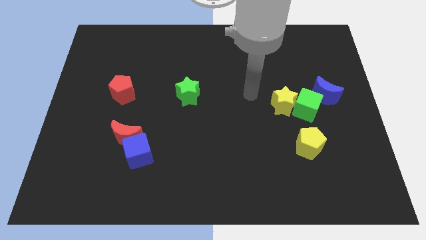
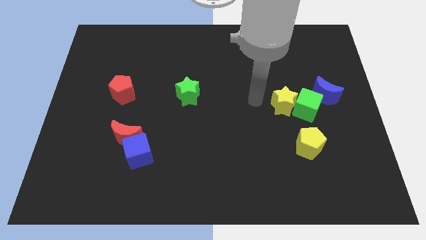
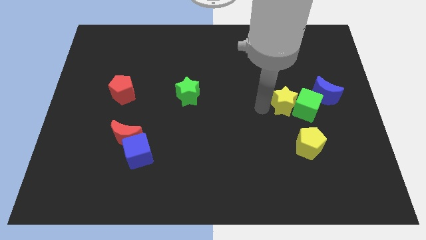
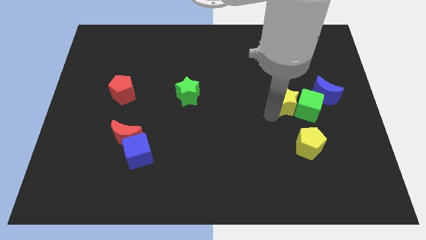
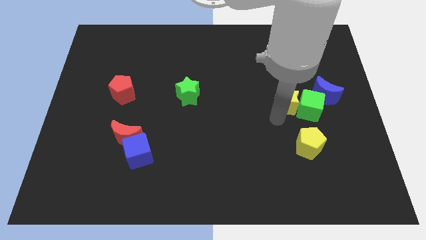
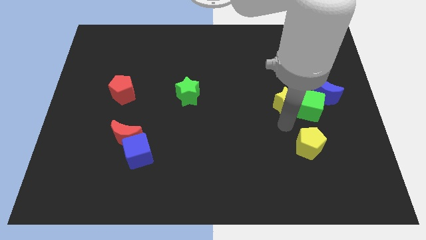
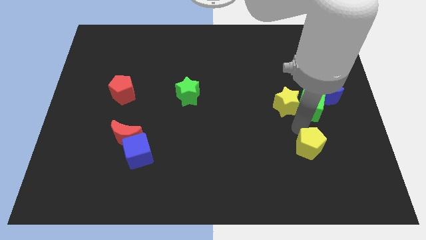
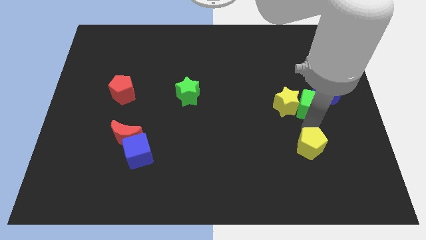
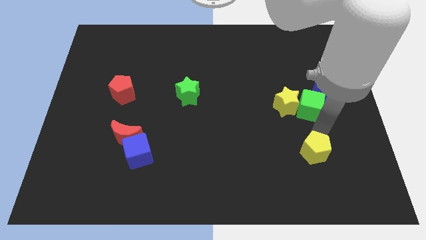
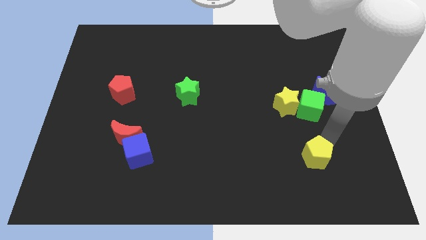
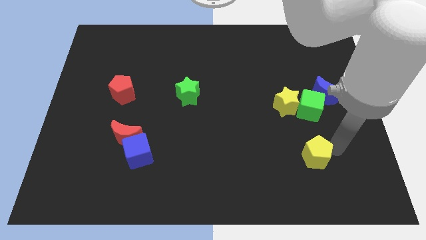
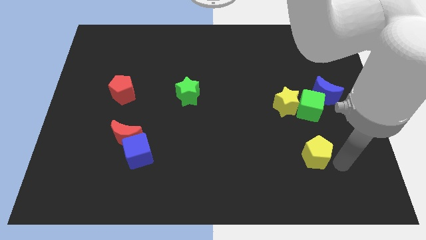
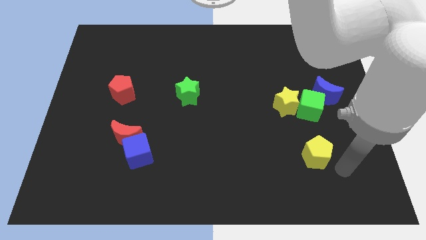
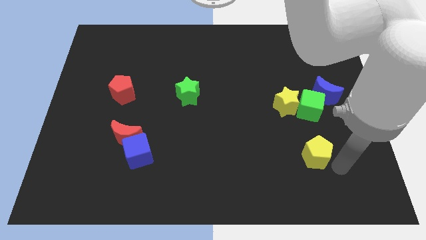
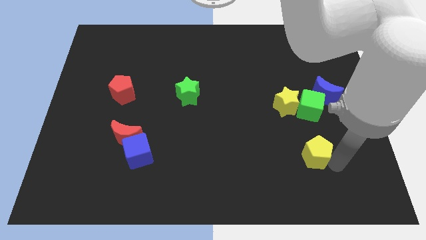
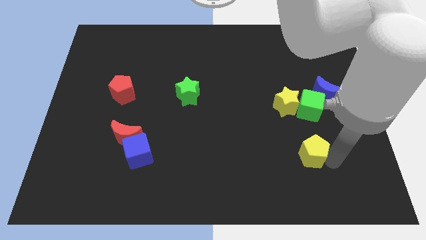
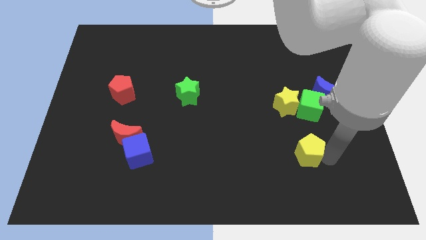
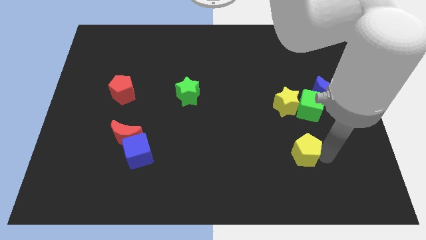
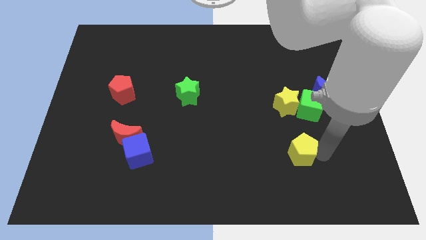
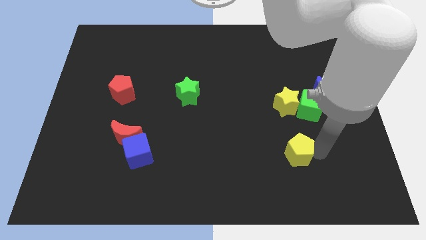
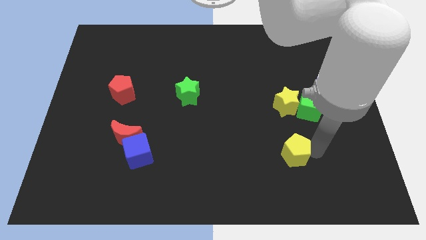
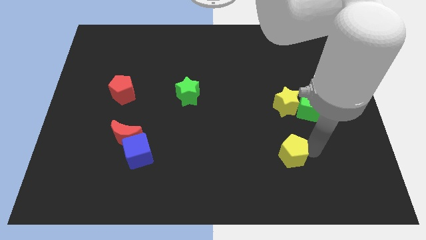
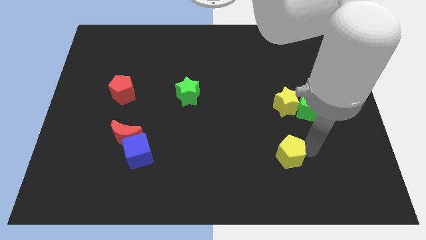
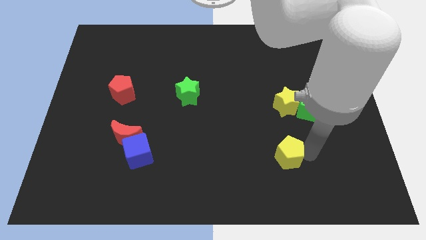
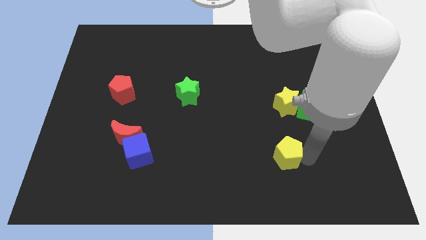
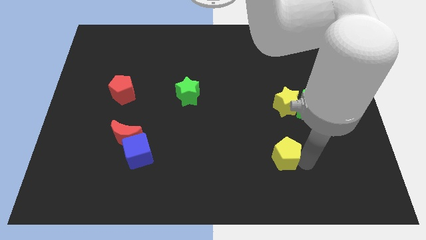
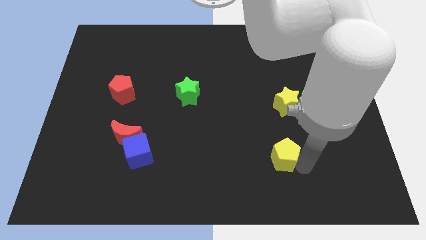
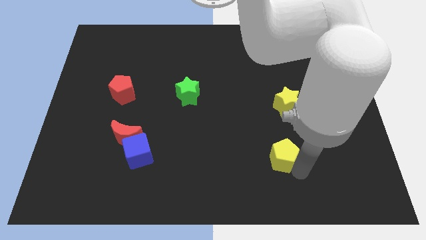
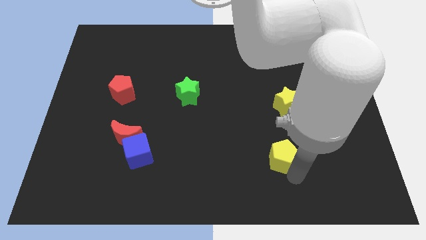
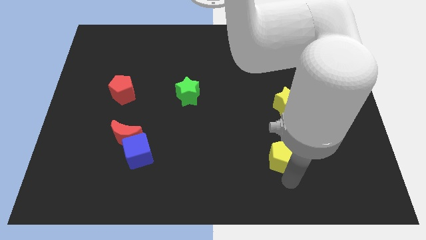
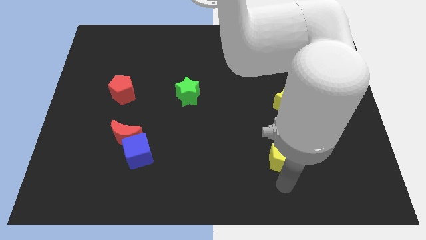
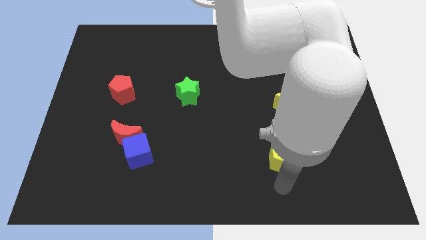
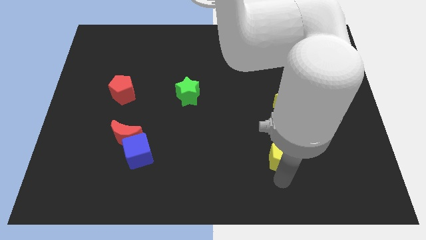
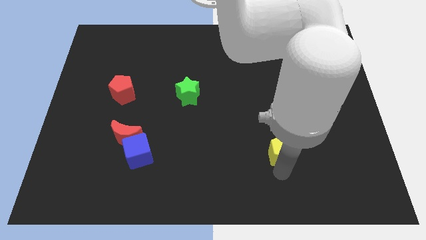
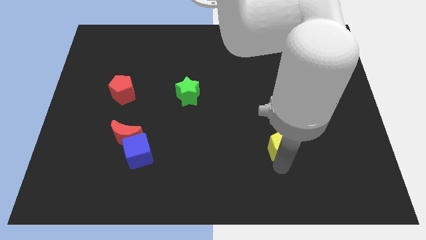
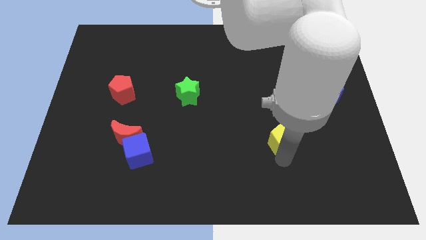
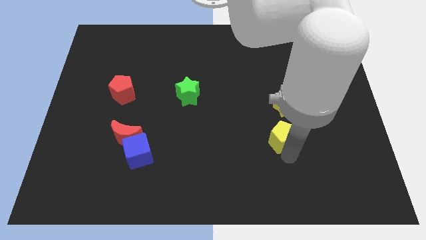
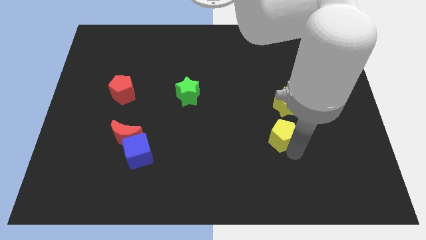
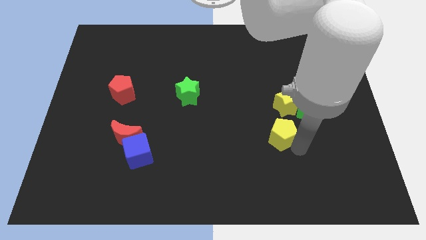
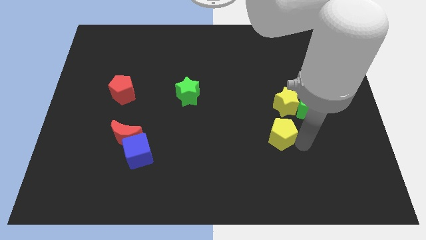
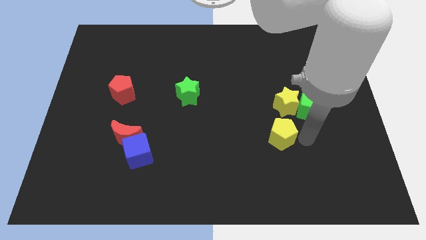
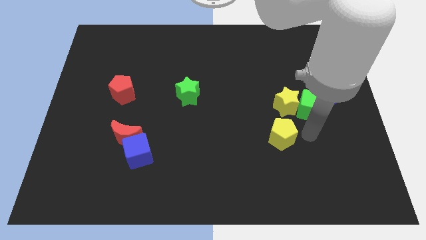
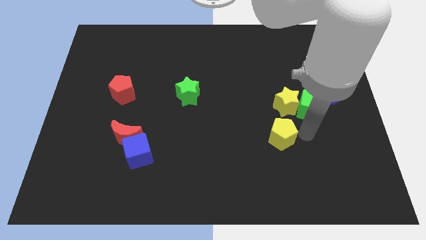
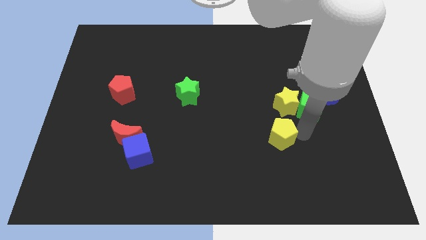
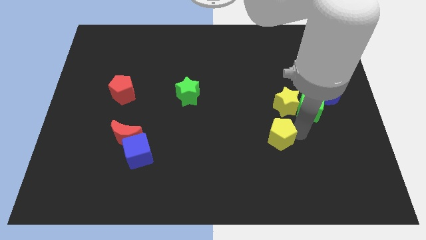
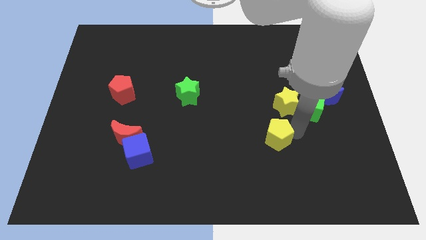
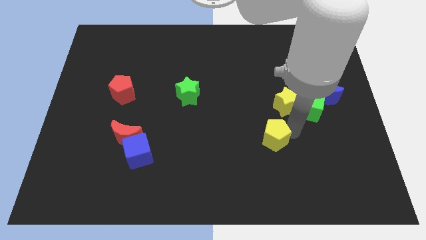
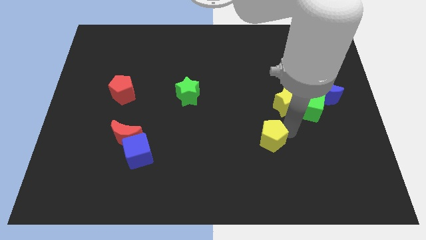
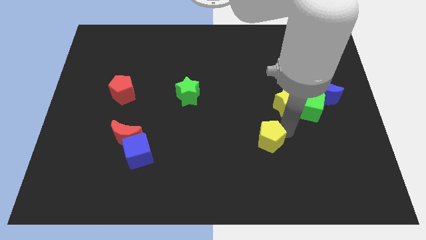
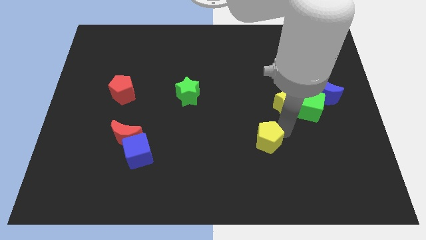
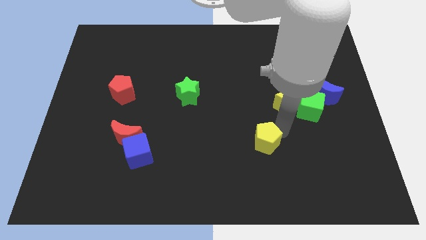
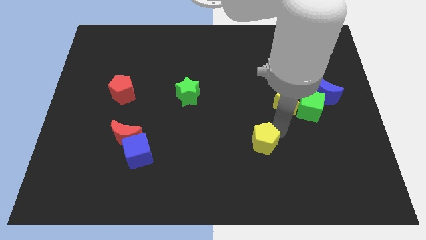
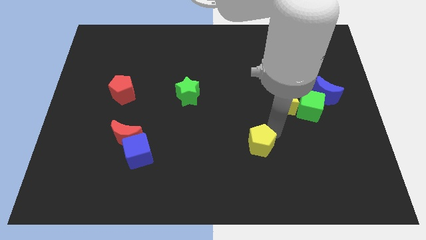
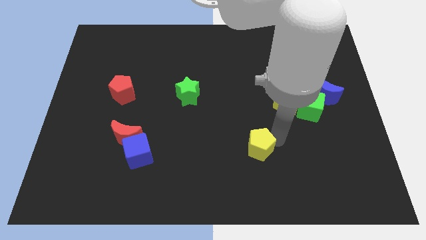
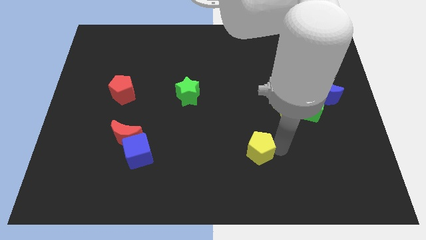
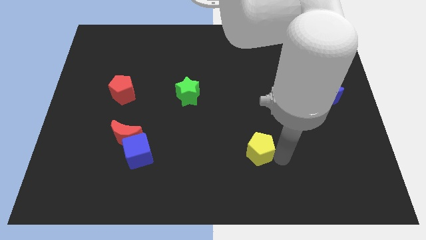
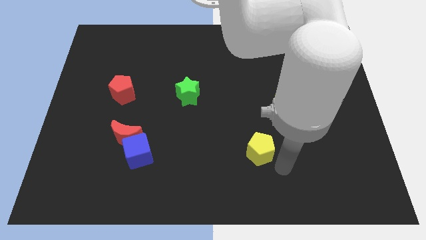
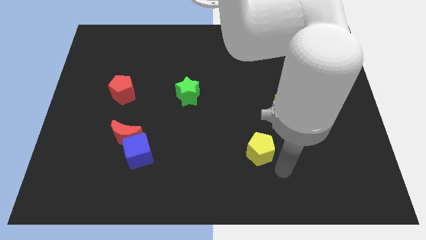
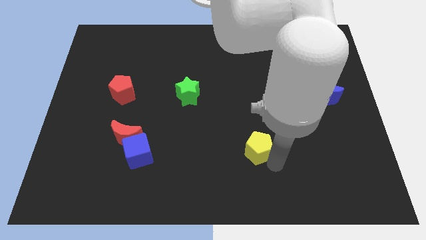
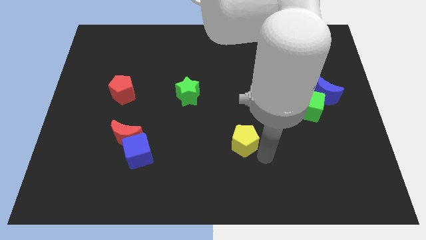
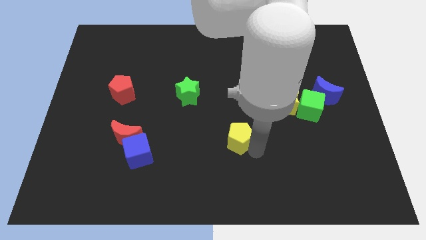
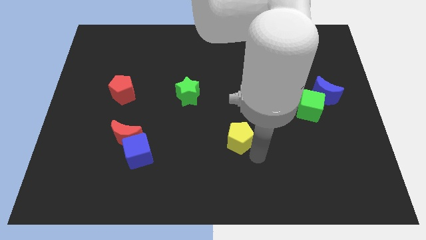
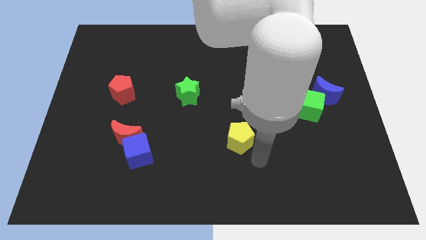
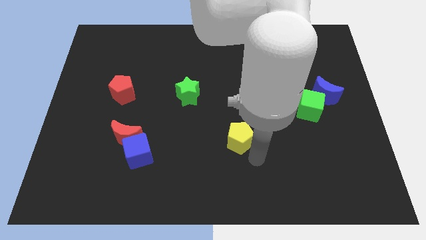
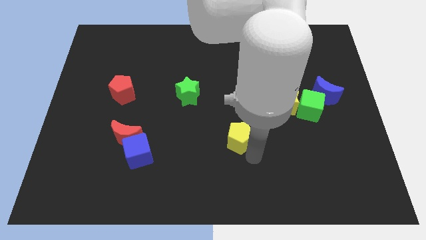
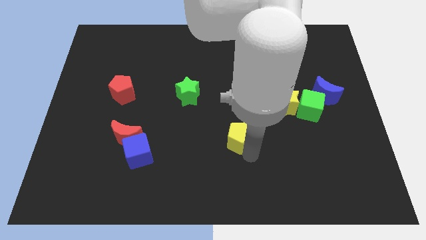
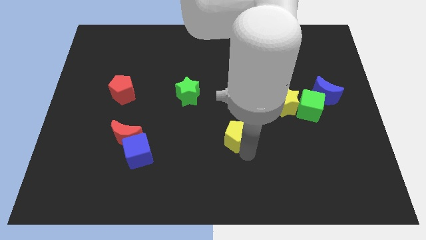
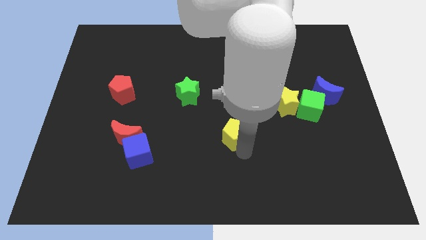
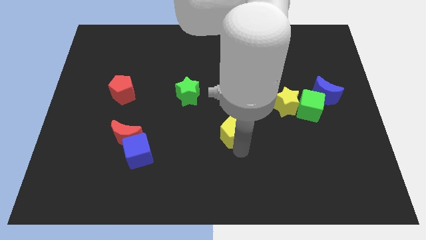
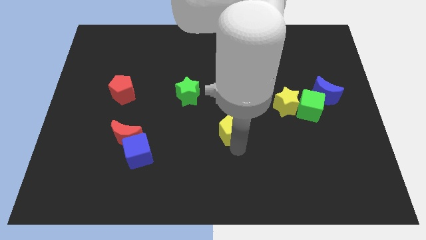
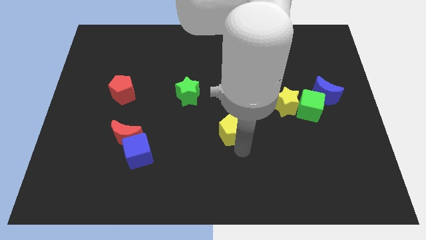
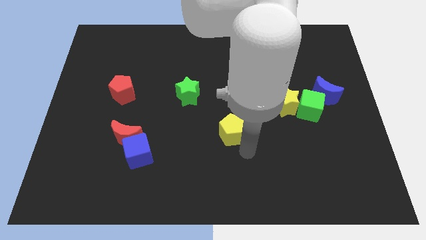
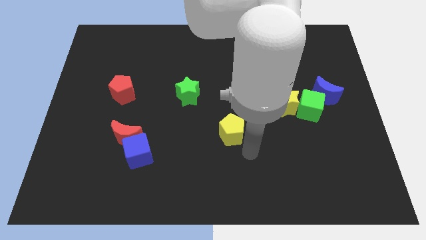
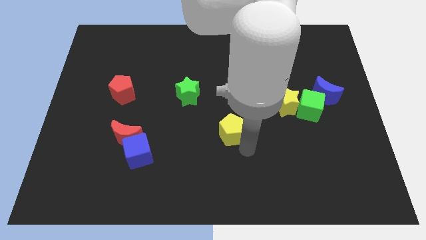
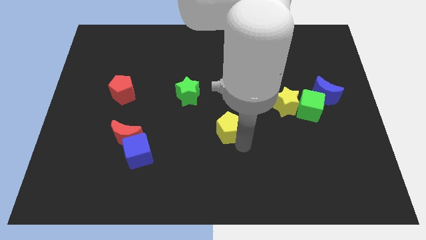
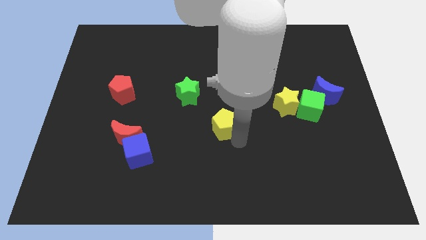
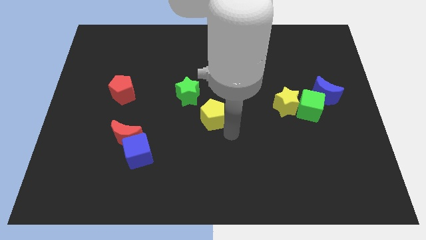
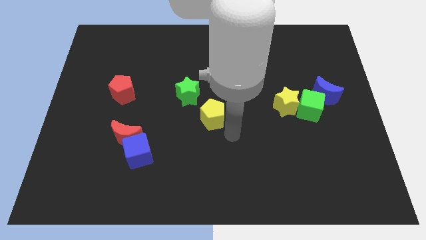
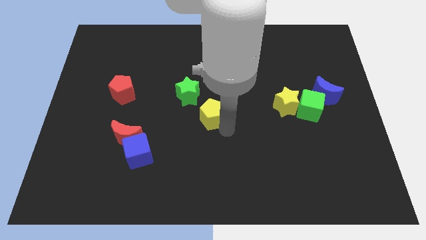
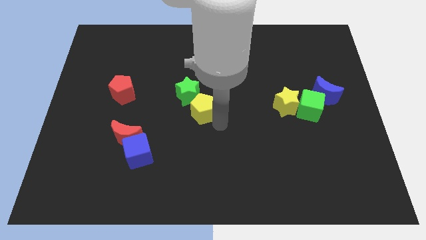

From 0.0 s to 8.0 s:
put the yellow pentagon next to the green star
